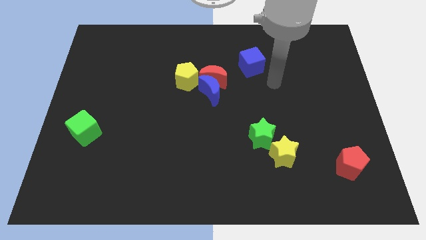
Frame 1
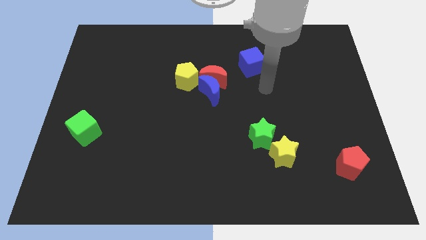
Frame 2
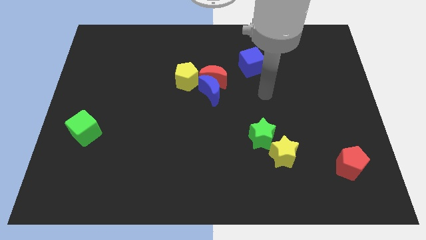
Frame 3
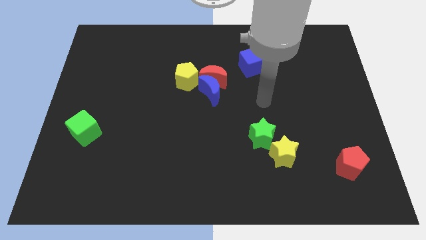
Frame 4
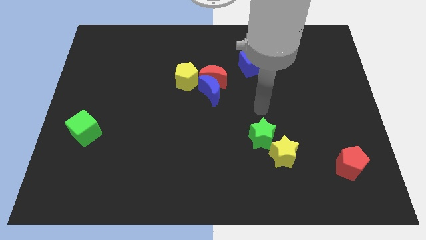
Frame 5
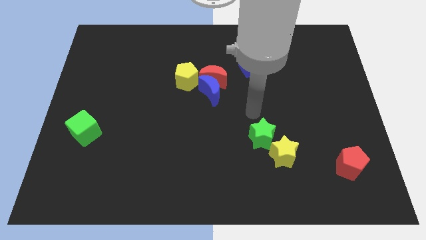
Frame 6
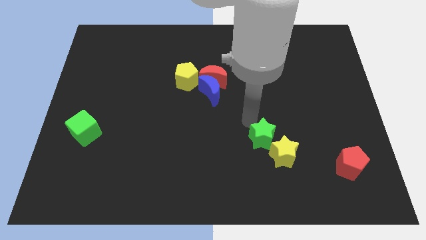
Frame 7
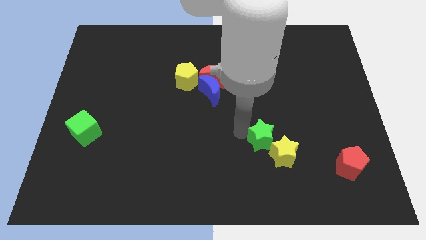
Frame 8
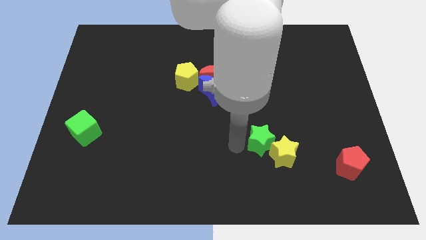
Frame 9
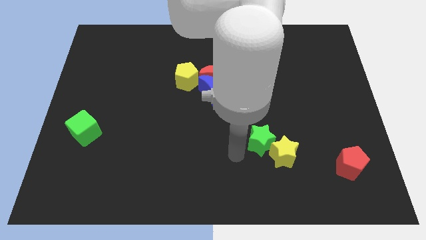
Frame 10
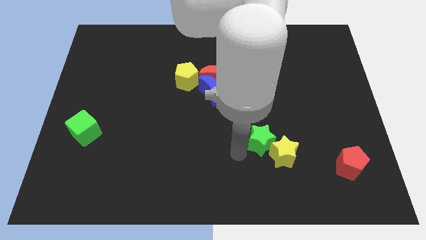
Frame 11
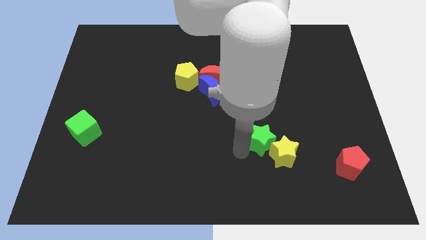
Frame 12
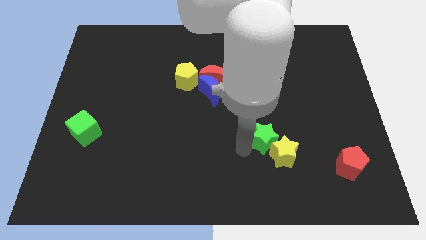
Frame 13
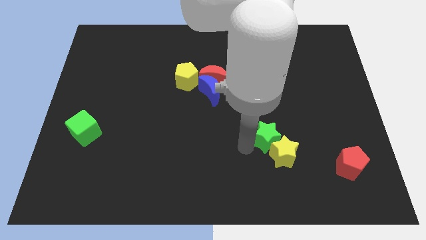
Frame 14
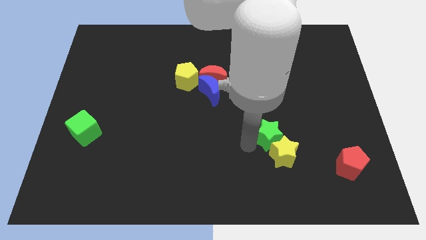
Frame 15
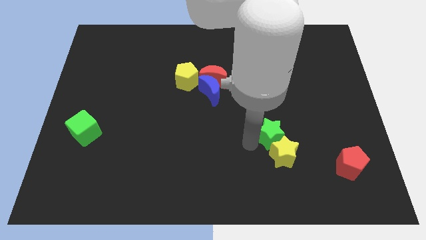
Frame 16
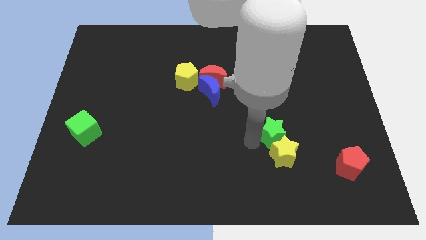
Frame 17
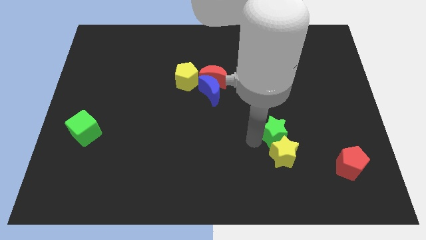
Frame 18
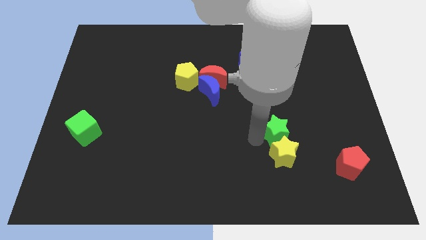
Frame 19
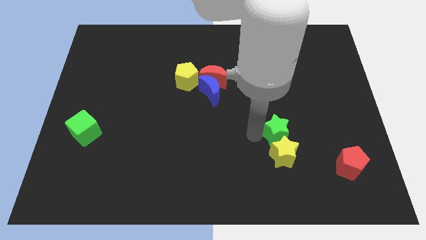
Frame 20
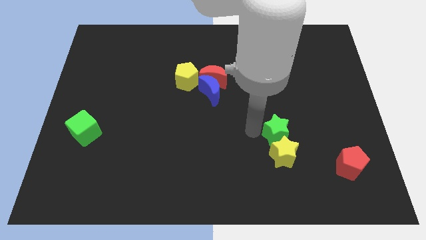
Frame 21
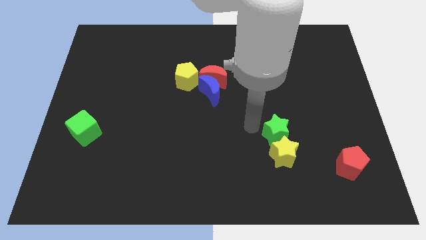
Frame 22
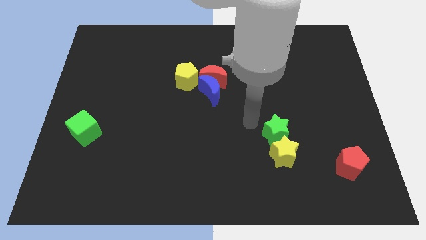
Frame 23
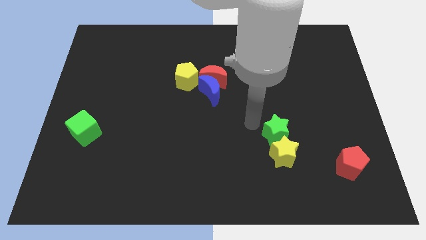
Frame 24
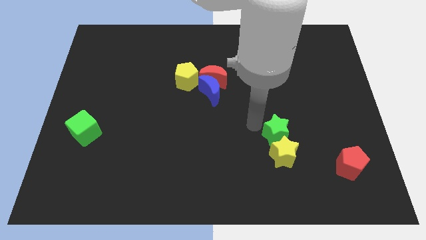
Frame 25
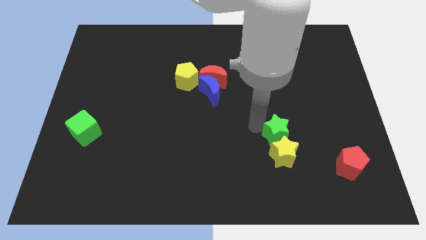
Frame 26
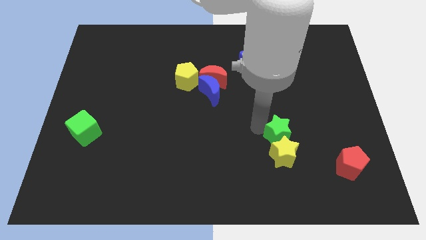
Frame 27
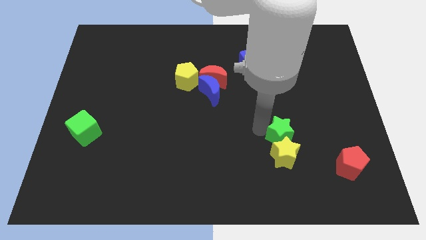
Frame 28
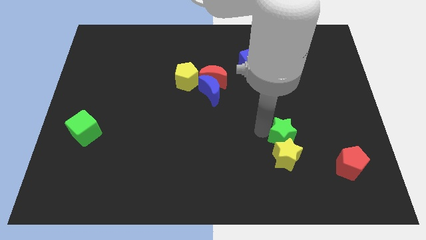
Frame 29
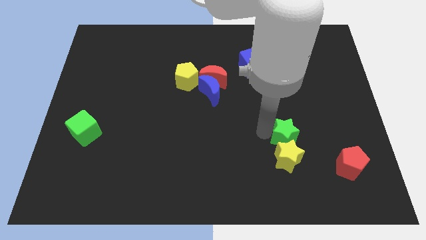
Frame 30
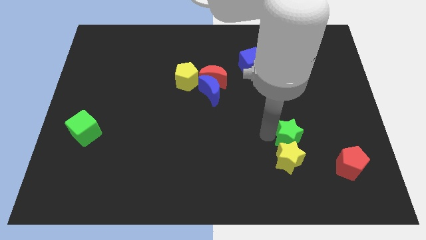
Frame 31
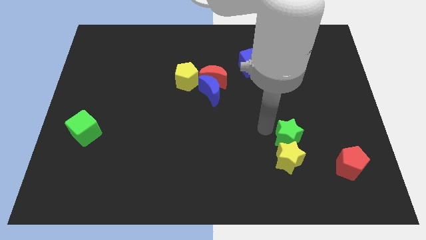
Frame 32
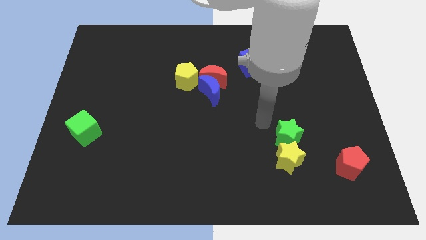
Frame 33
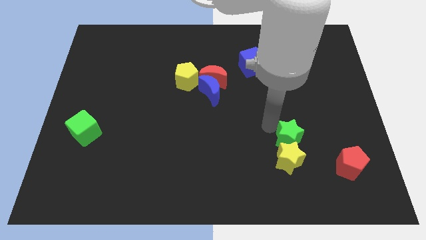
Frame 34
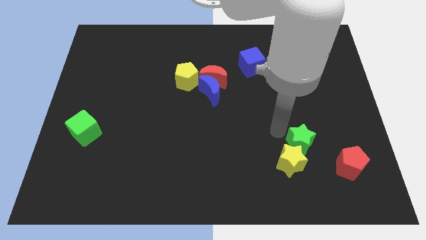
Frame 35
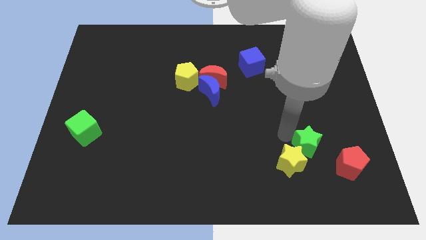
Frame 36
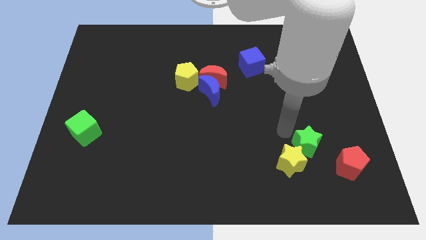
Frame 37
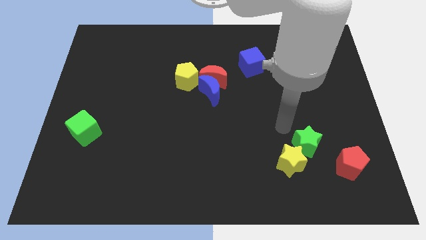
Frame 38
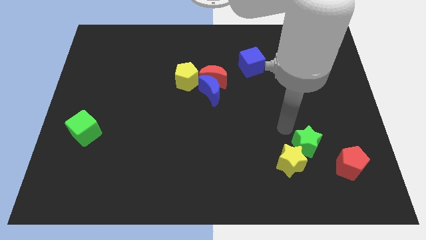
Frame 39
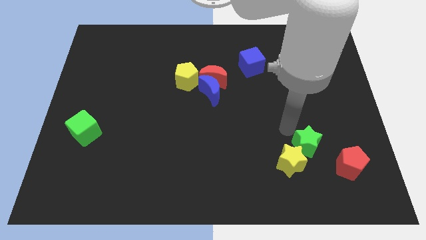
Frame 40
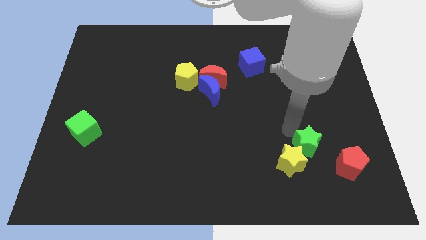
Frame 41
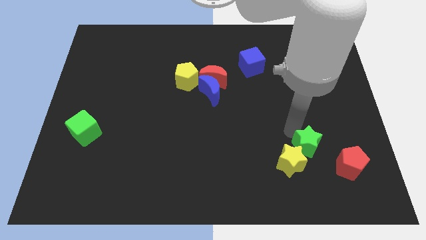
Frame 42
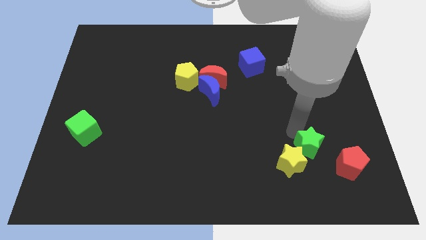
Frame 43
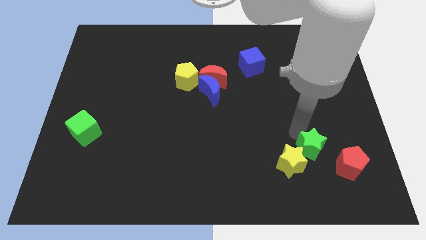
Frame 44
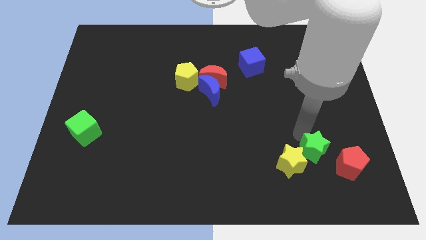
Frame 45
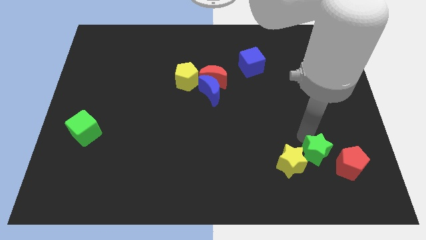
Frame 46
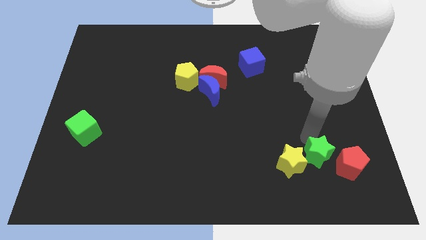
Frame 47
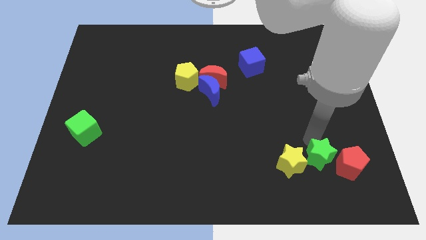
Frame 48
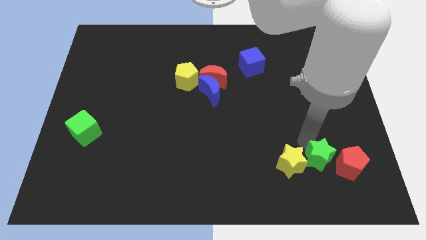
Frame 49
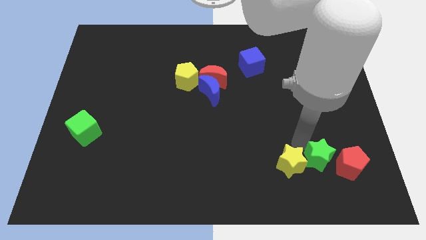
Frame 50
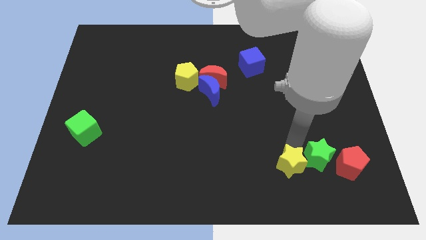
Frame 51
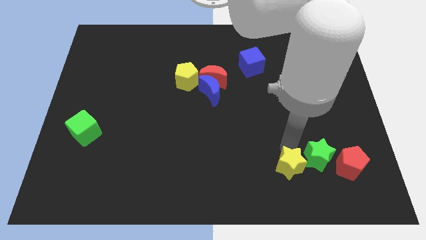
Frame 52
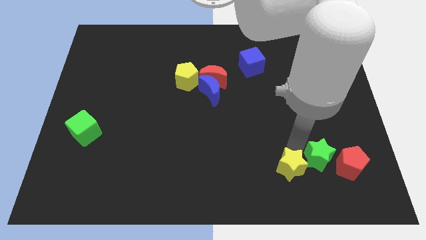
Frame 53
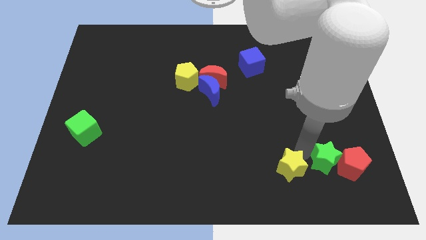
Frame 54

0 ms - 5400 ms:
move the green star close to the red pentagon

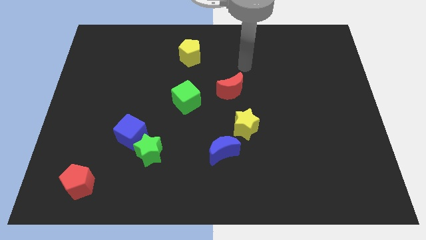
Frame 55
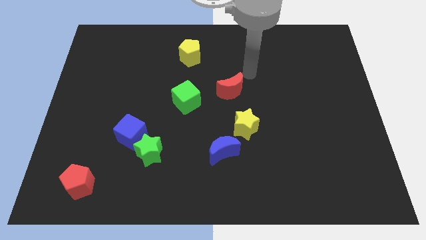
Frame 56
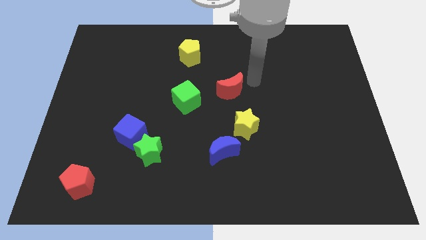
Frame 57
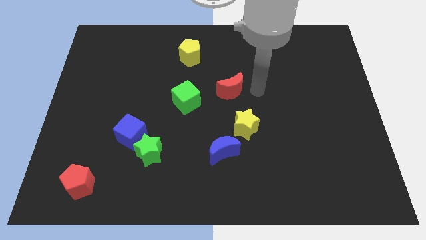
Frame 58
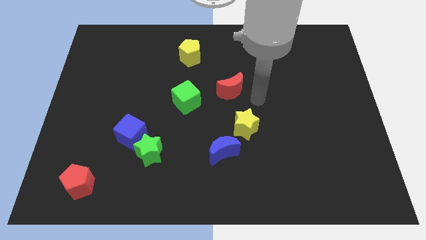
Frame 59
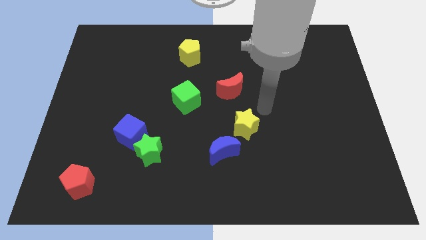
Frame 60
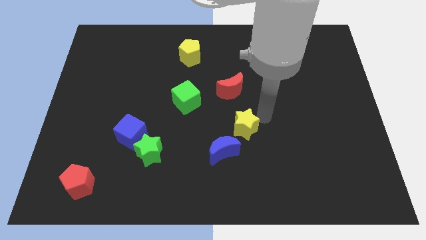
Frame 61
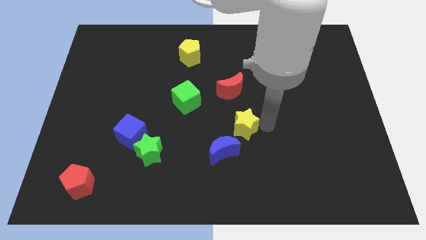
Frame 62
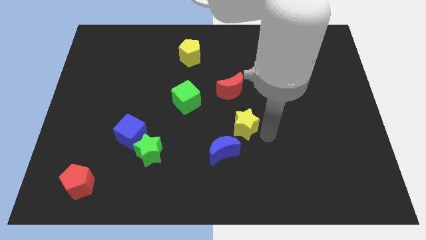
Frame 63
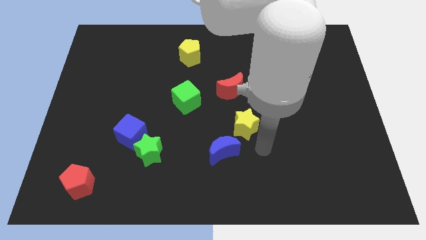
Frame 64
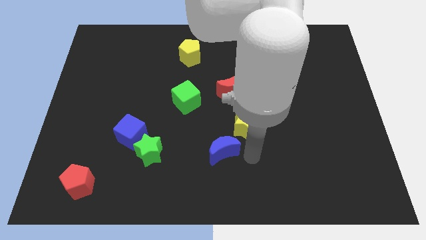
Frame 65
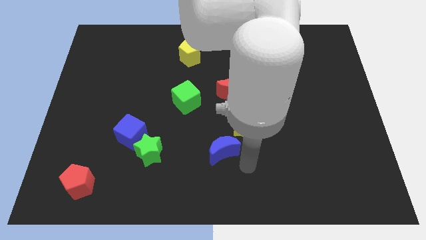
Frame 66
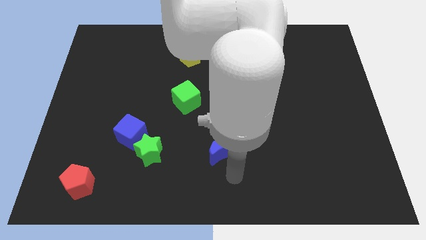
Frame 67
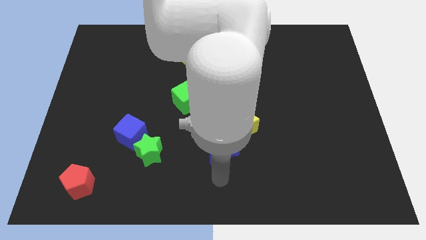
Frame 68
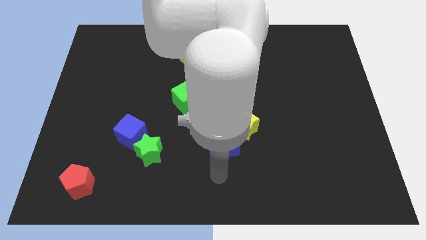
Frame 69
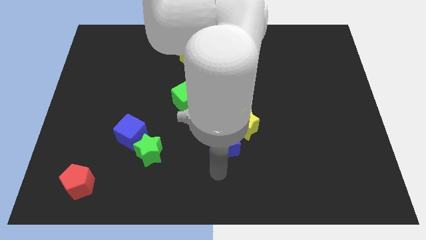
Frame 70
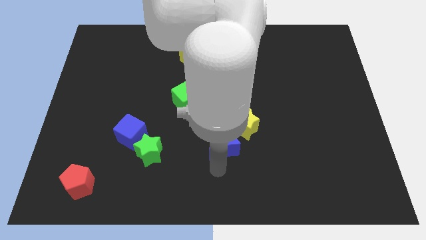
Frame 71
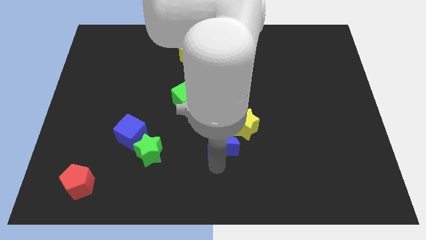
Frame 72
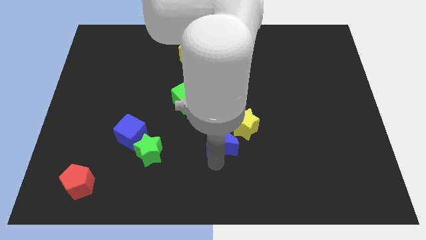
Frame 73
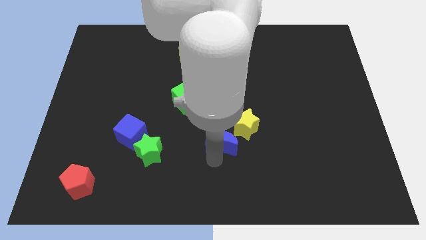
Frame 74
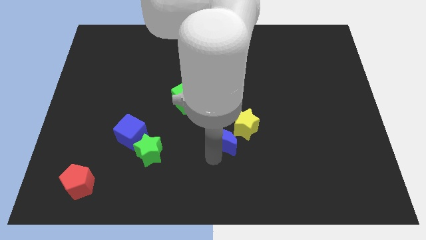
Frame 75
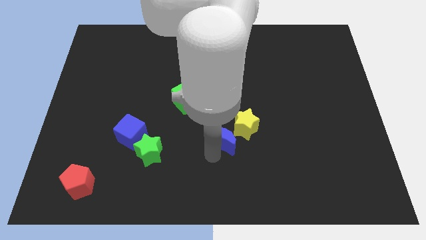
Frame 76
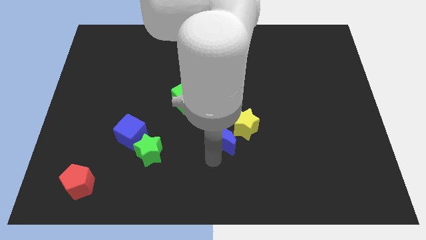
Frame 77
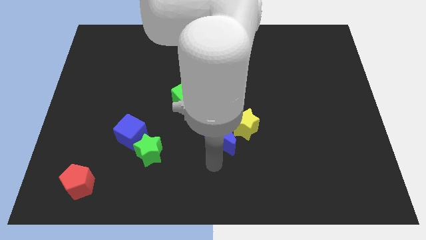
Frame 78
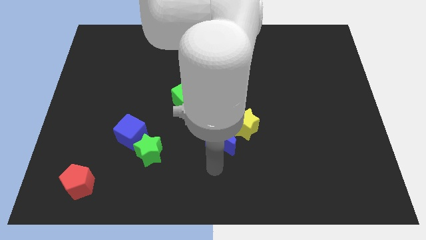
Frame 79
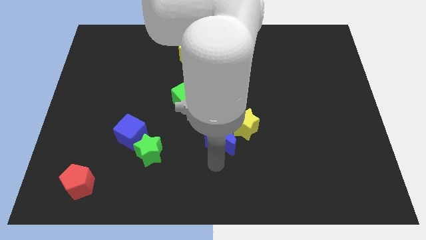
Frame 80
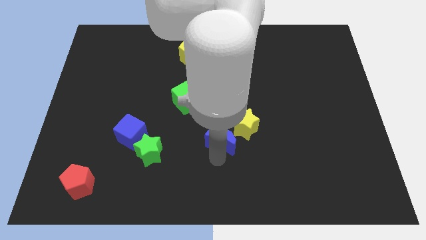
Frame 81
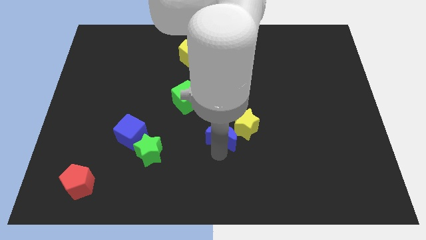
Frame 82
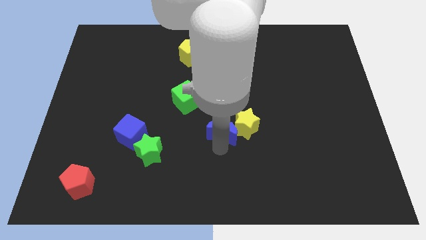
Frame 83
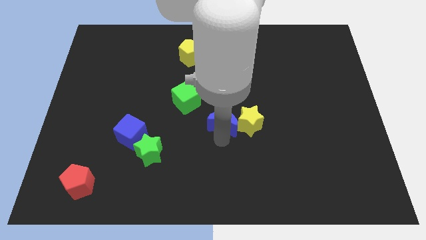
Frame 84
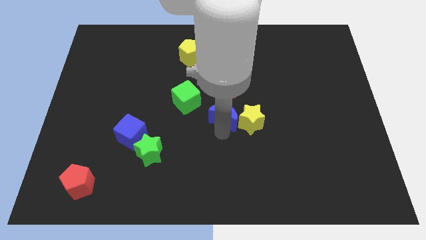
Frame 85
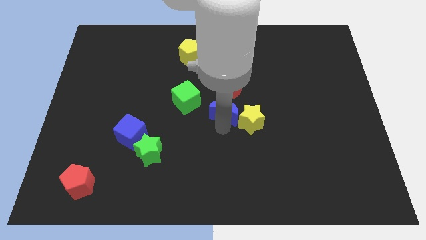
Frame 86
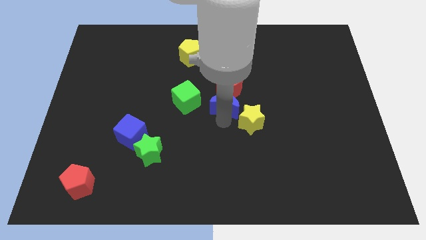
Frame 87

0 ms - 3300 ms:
slide the blue moon close to the red moon
